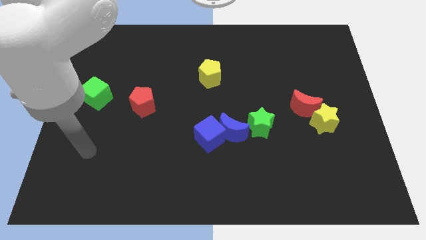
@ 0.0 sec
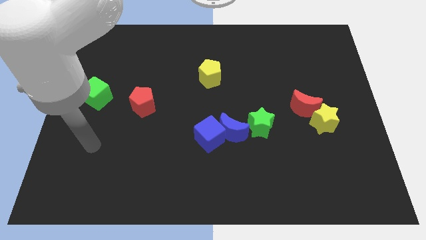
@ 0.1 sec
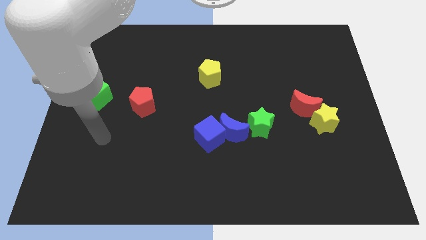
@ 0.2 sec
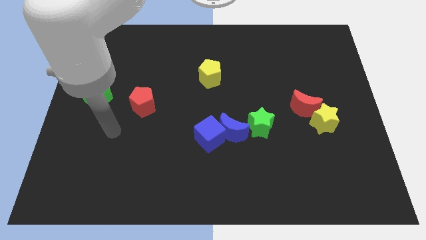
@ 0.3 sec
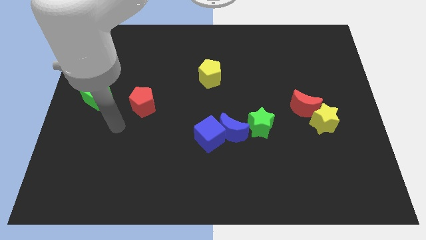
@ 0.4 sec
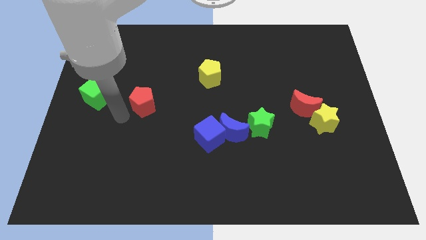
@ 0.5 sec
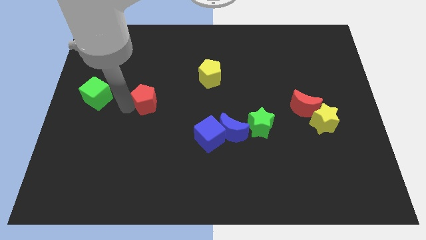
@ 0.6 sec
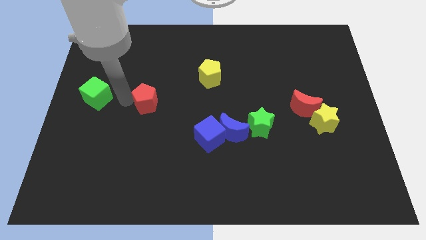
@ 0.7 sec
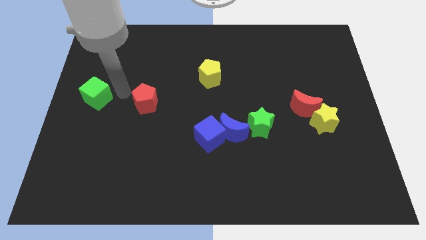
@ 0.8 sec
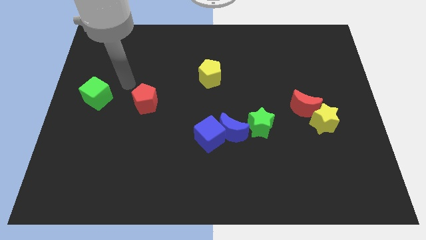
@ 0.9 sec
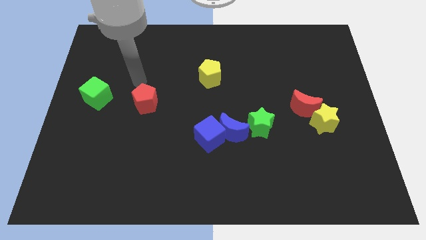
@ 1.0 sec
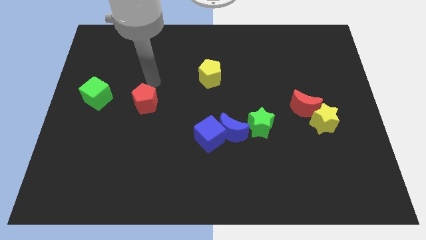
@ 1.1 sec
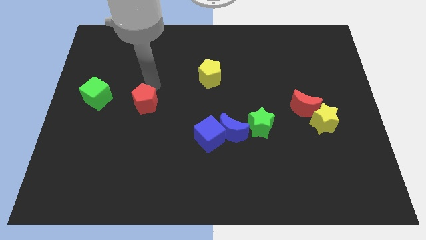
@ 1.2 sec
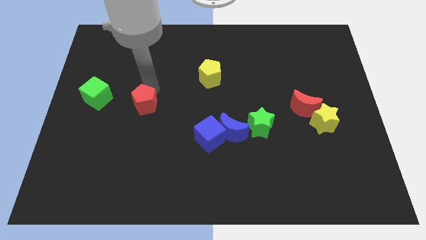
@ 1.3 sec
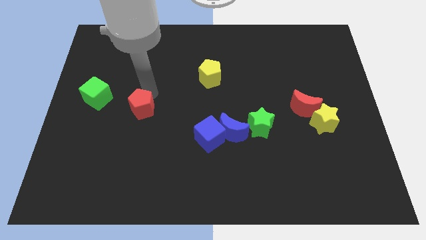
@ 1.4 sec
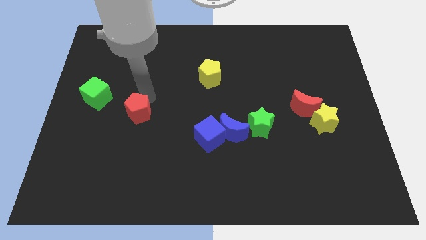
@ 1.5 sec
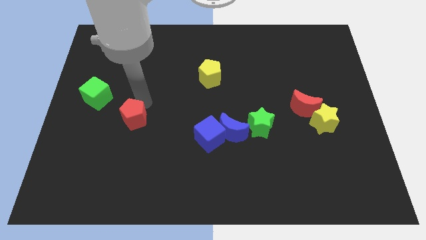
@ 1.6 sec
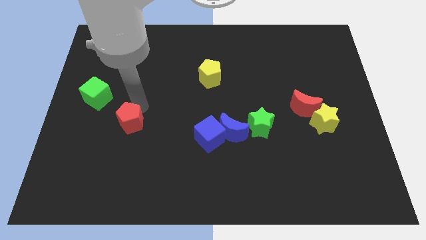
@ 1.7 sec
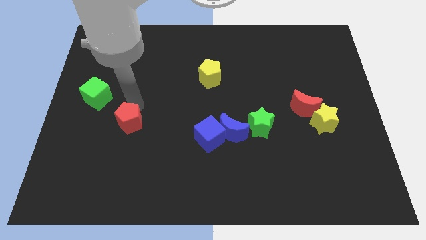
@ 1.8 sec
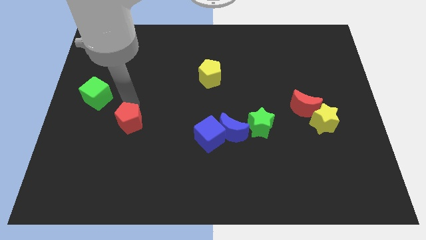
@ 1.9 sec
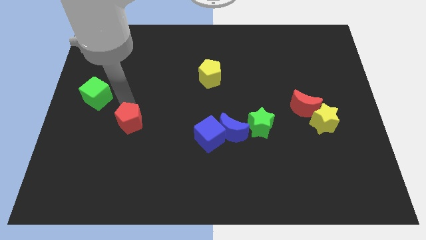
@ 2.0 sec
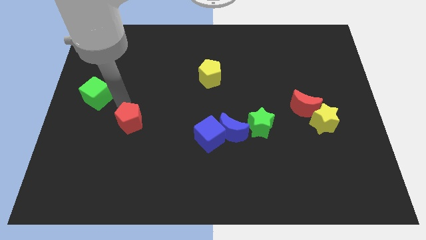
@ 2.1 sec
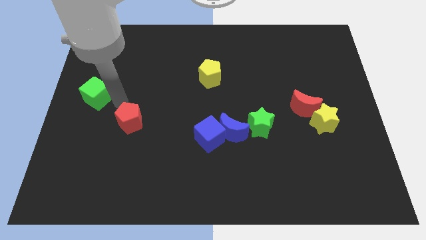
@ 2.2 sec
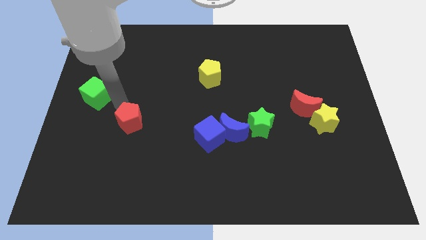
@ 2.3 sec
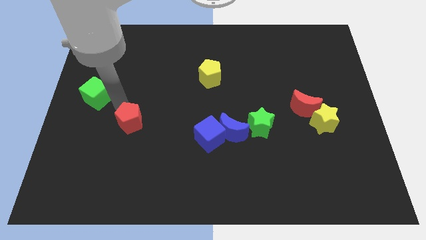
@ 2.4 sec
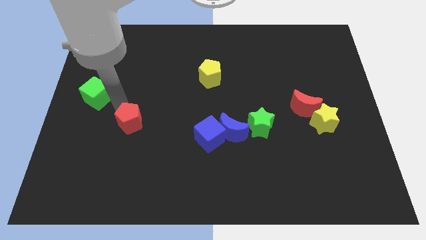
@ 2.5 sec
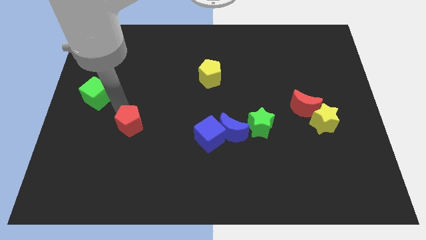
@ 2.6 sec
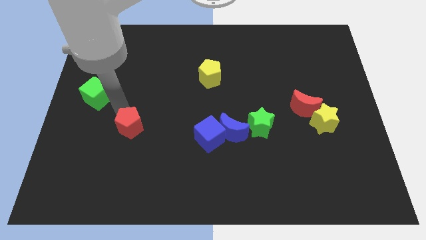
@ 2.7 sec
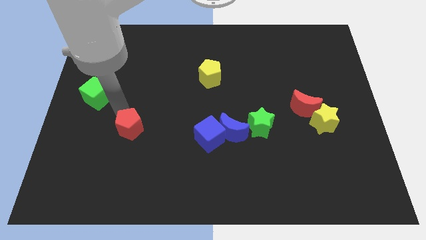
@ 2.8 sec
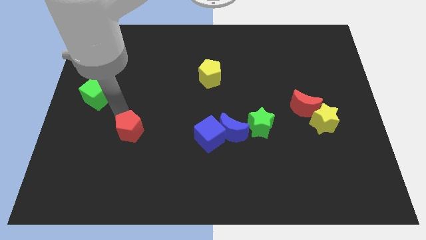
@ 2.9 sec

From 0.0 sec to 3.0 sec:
move the red pentagon a little bit down

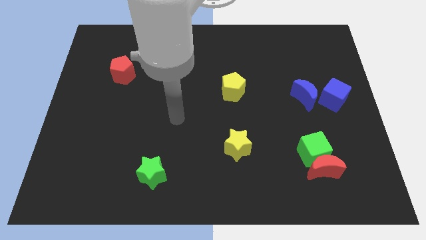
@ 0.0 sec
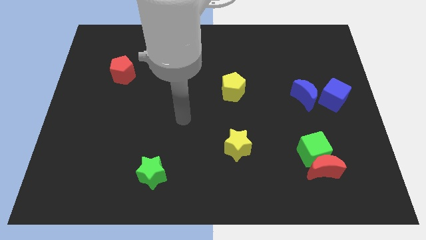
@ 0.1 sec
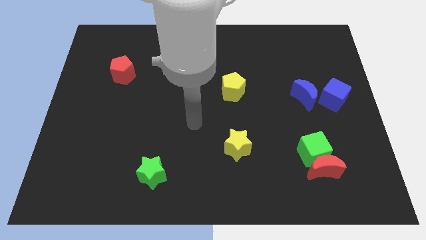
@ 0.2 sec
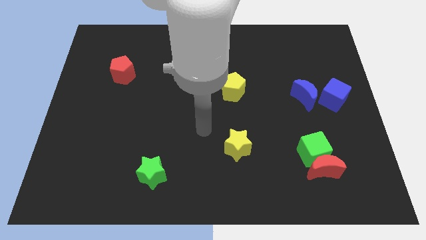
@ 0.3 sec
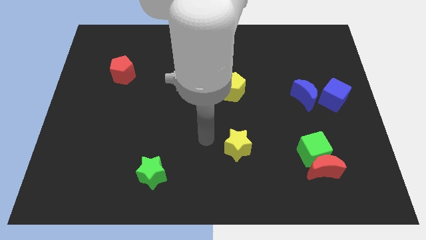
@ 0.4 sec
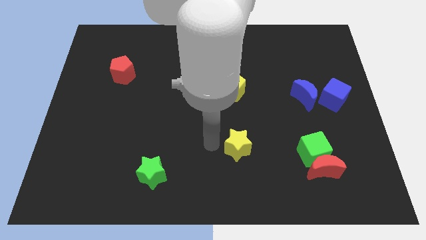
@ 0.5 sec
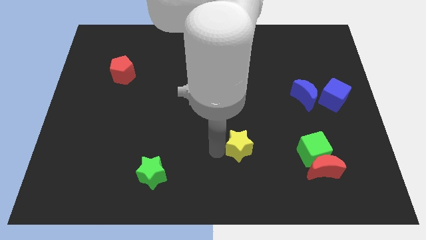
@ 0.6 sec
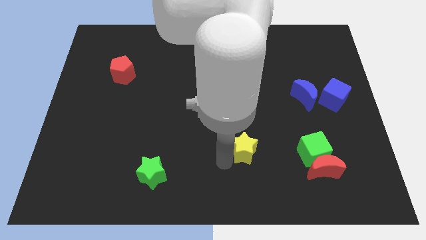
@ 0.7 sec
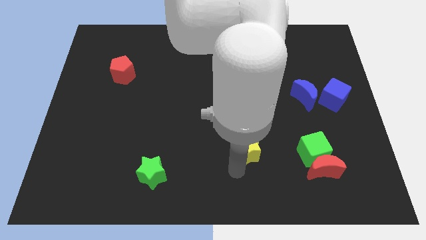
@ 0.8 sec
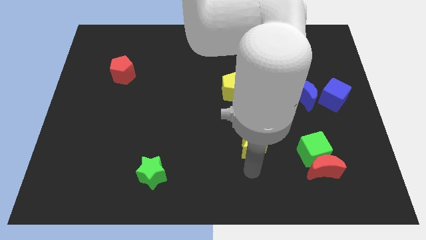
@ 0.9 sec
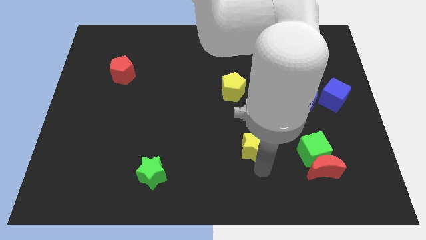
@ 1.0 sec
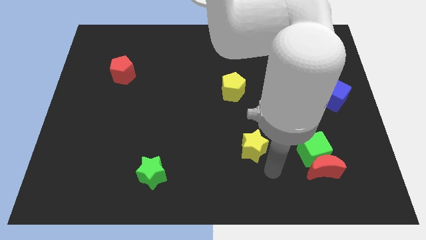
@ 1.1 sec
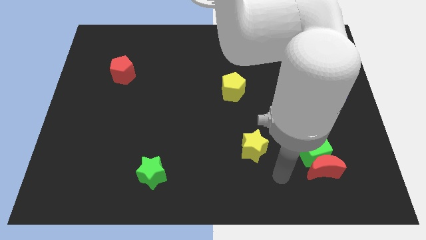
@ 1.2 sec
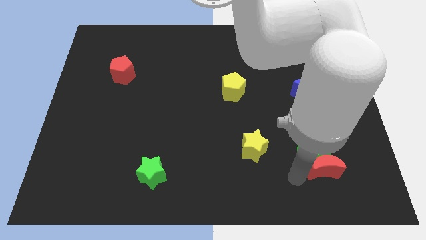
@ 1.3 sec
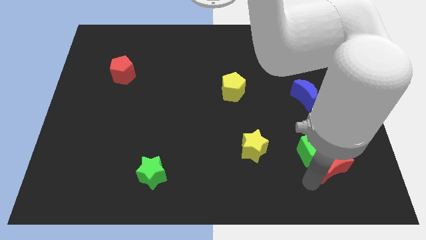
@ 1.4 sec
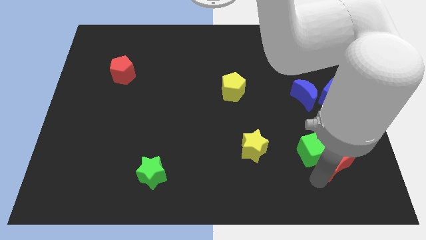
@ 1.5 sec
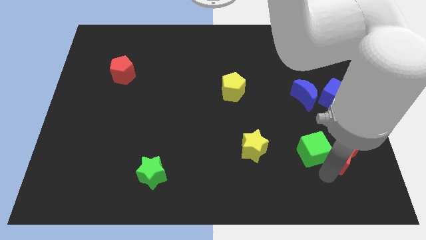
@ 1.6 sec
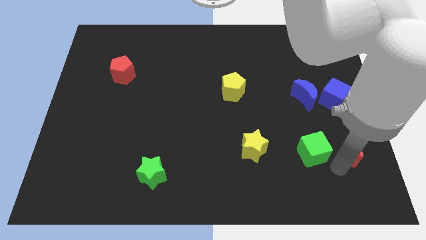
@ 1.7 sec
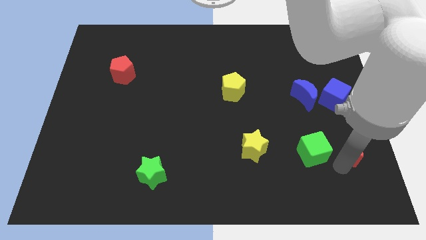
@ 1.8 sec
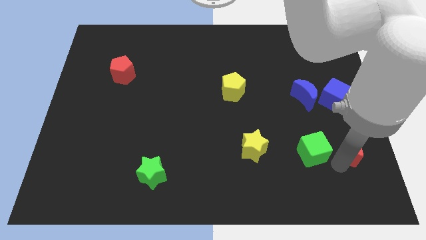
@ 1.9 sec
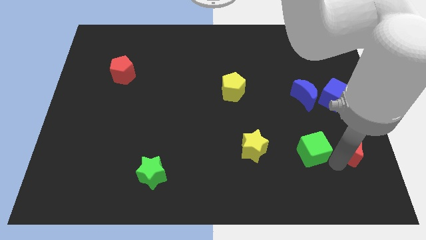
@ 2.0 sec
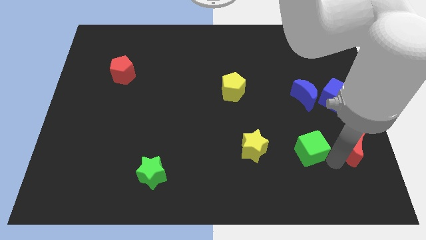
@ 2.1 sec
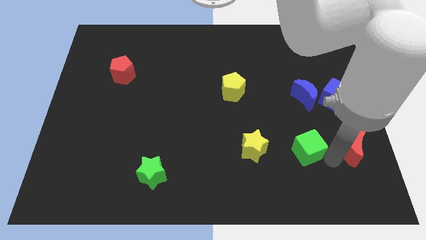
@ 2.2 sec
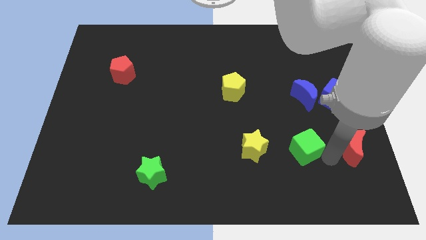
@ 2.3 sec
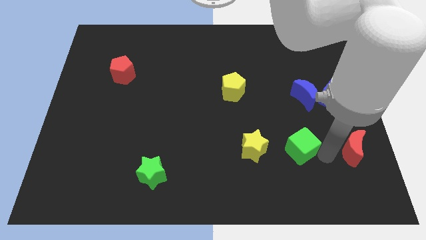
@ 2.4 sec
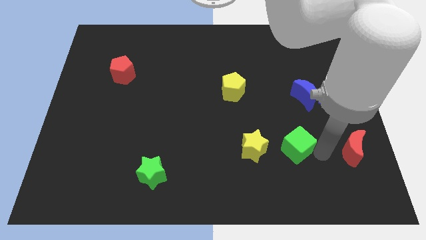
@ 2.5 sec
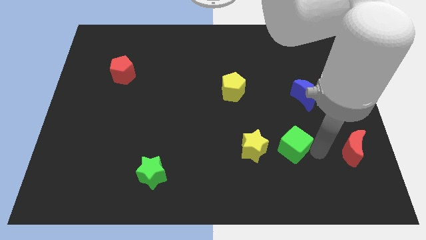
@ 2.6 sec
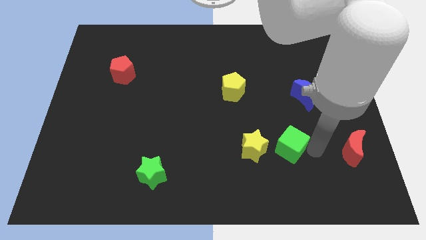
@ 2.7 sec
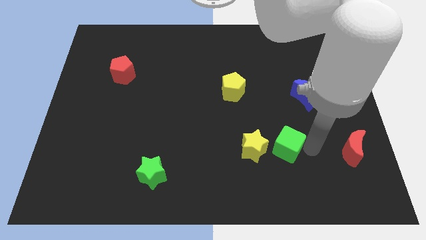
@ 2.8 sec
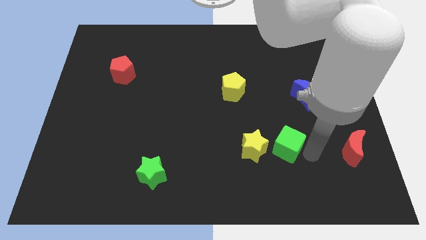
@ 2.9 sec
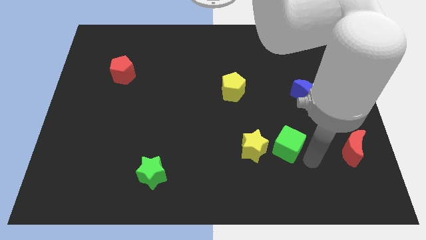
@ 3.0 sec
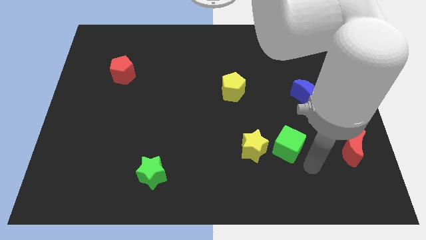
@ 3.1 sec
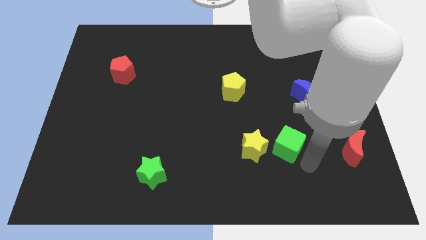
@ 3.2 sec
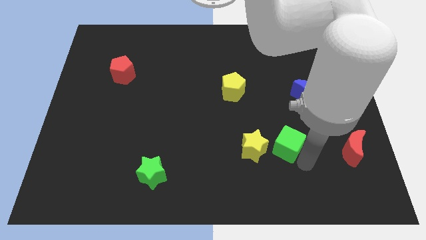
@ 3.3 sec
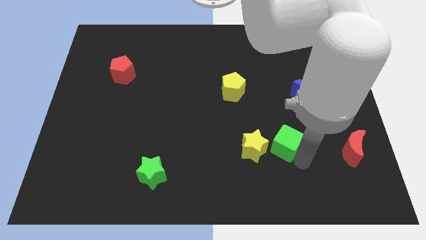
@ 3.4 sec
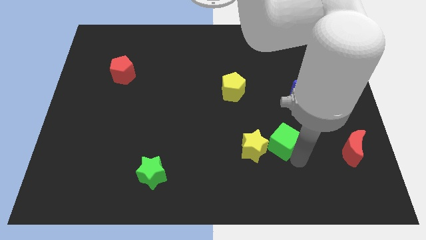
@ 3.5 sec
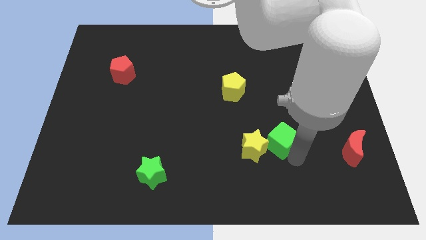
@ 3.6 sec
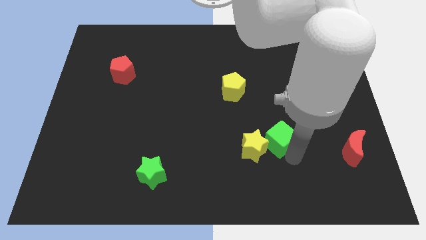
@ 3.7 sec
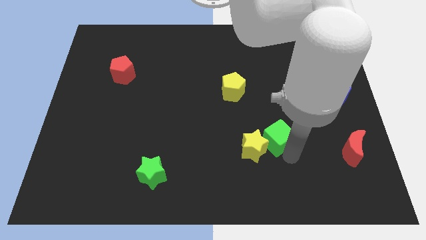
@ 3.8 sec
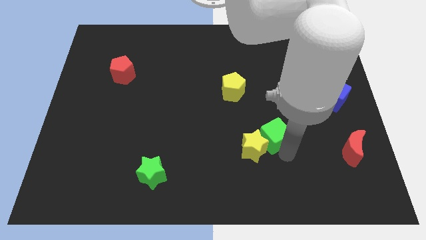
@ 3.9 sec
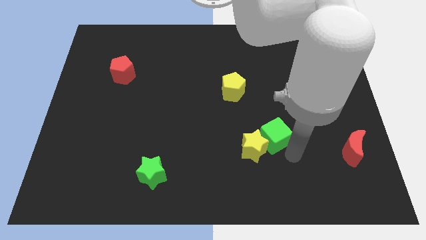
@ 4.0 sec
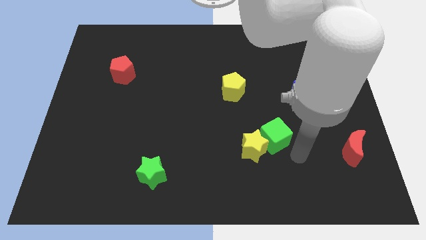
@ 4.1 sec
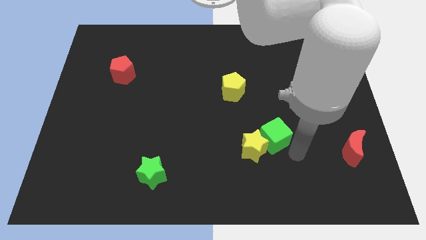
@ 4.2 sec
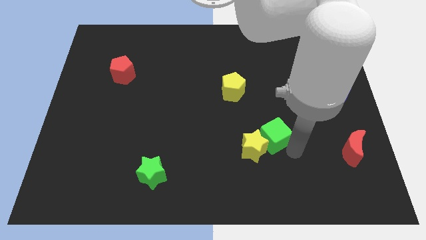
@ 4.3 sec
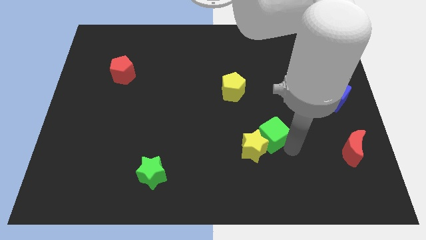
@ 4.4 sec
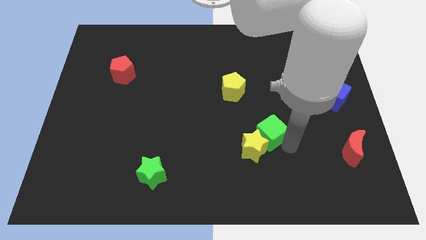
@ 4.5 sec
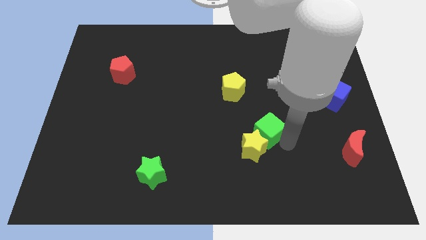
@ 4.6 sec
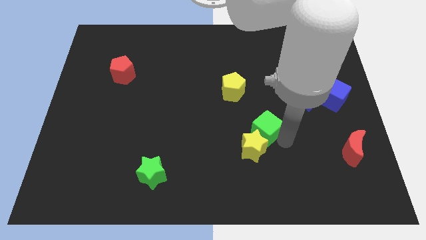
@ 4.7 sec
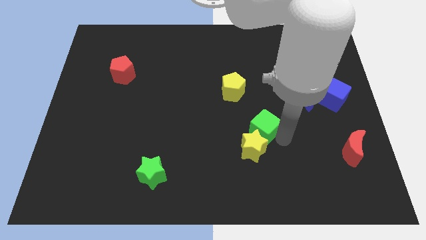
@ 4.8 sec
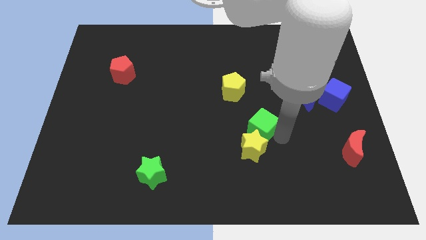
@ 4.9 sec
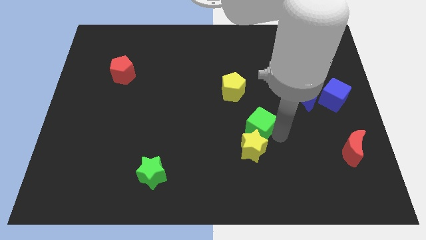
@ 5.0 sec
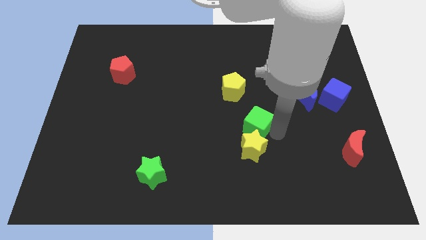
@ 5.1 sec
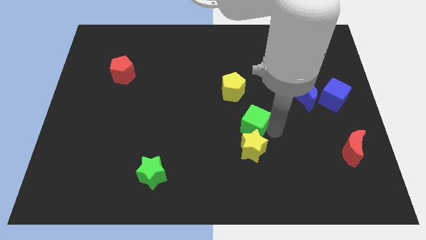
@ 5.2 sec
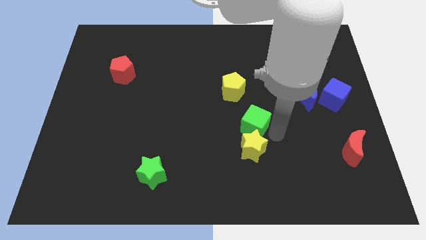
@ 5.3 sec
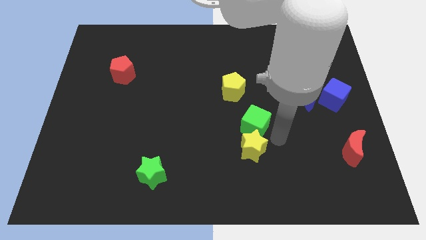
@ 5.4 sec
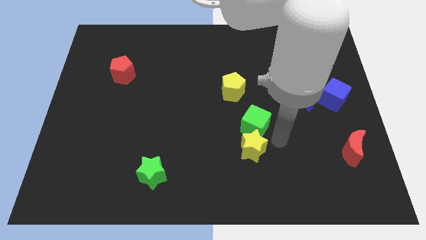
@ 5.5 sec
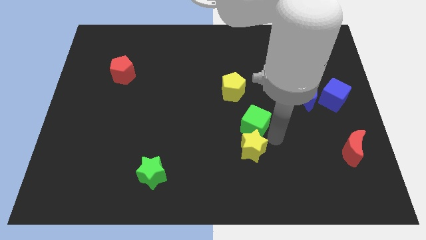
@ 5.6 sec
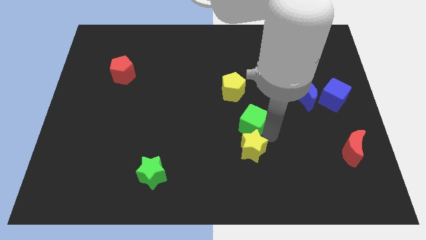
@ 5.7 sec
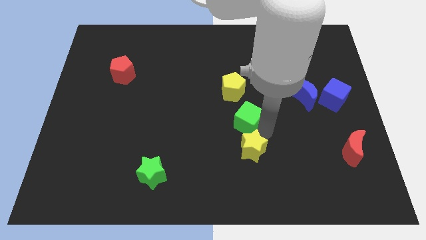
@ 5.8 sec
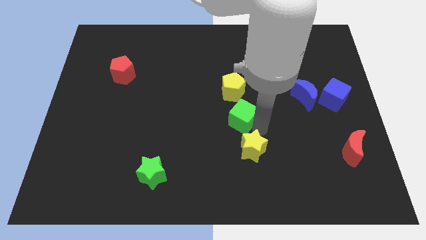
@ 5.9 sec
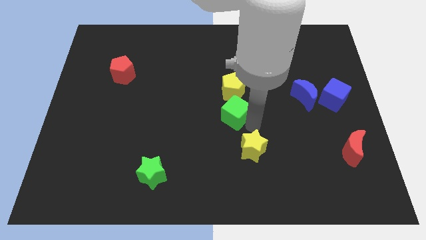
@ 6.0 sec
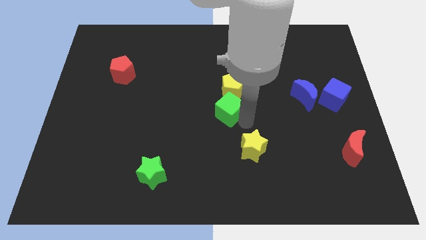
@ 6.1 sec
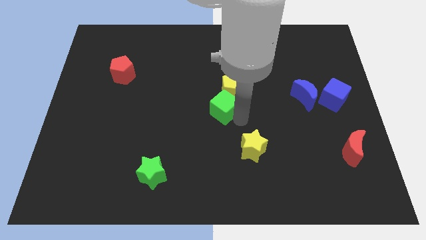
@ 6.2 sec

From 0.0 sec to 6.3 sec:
move the green cube diagonally up and to the left
